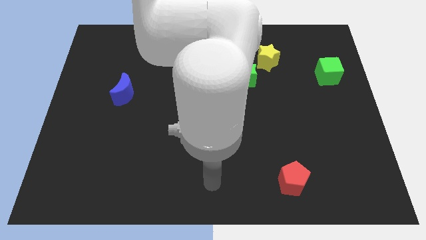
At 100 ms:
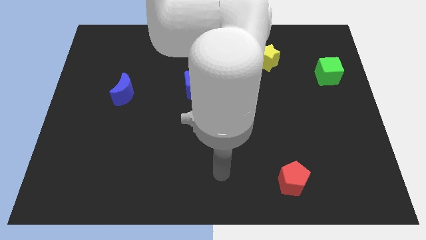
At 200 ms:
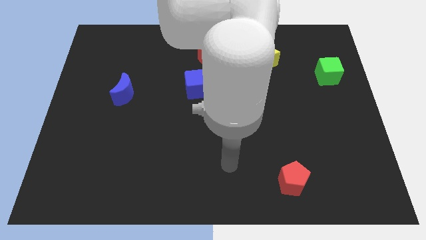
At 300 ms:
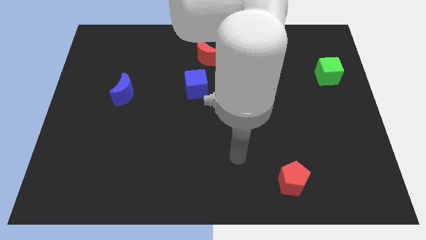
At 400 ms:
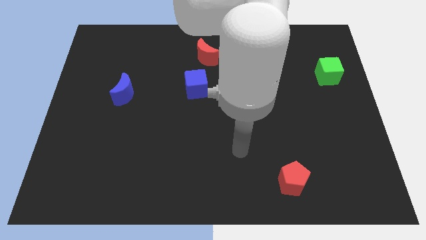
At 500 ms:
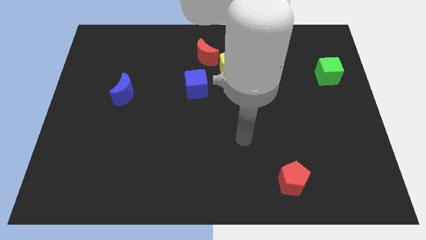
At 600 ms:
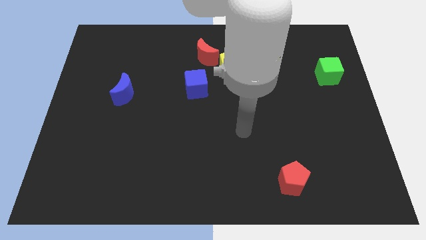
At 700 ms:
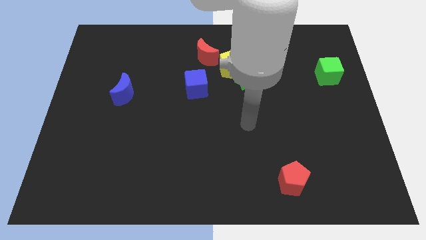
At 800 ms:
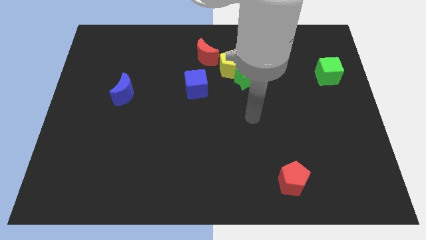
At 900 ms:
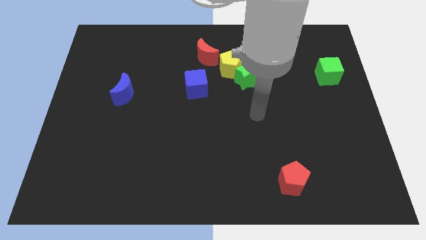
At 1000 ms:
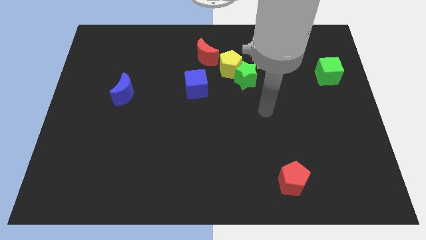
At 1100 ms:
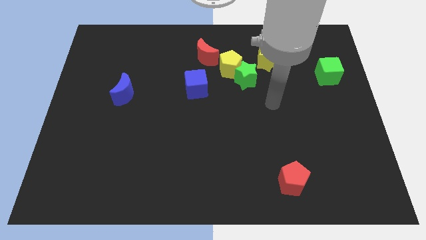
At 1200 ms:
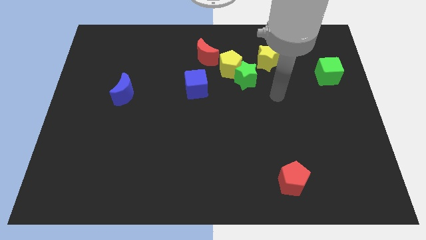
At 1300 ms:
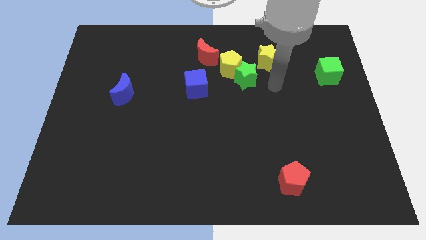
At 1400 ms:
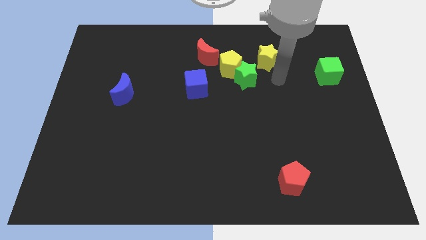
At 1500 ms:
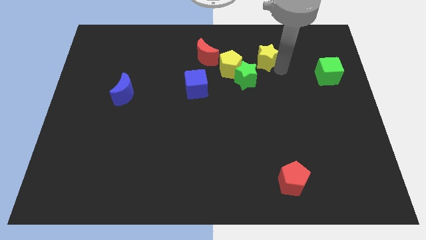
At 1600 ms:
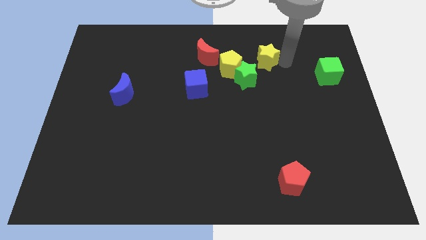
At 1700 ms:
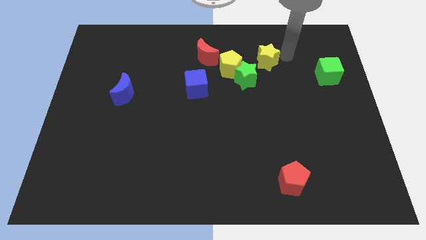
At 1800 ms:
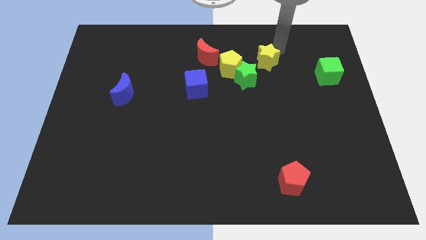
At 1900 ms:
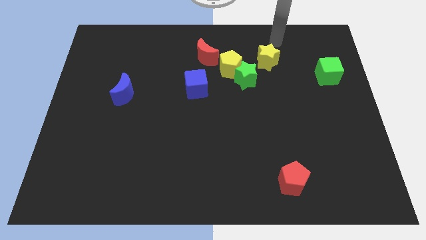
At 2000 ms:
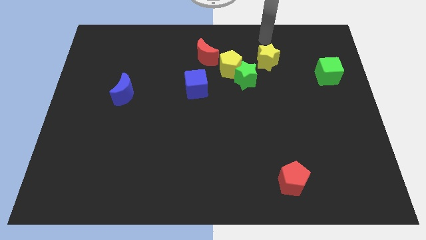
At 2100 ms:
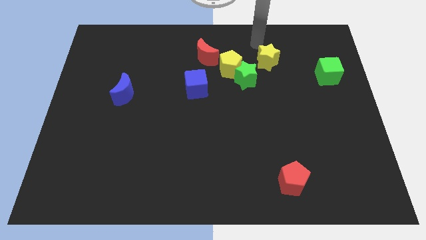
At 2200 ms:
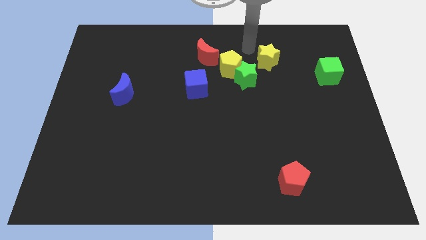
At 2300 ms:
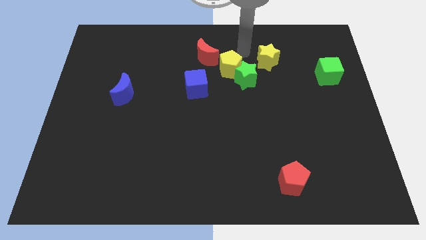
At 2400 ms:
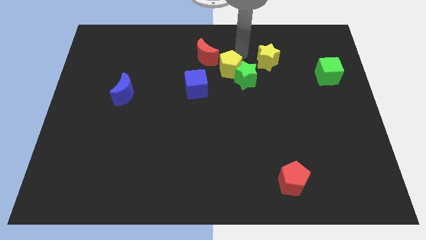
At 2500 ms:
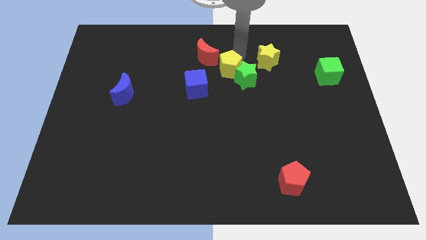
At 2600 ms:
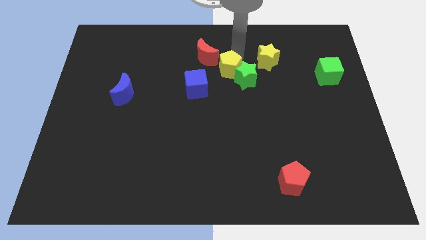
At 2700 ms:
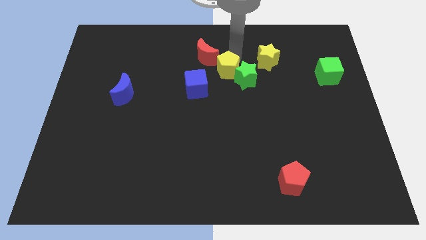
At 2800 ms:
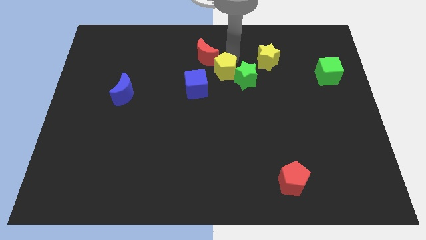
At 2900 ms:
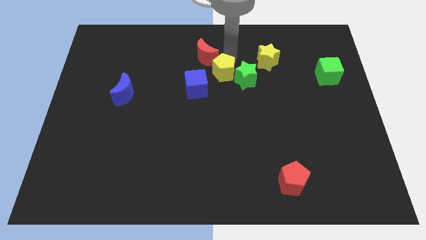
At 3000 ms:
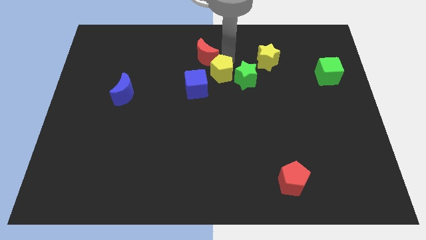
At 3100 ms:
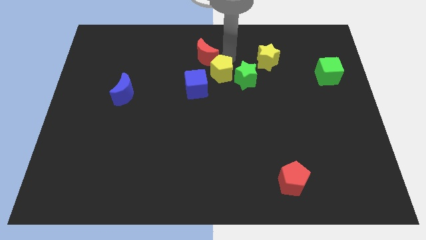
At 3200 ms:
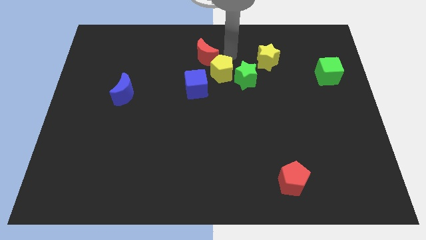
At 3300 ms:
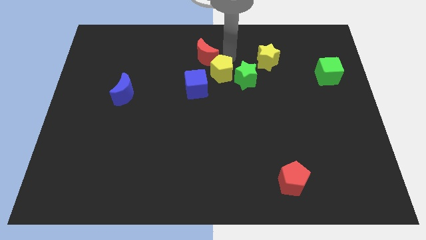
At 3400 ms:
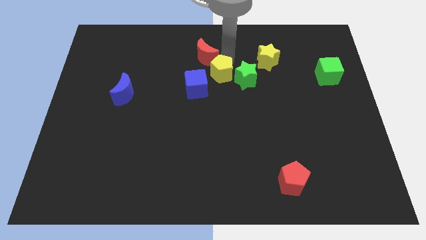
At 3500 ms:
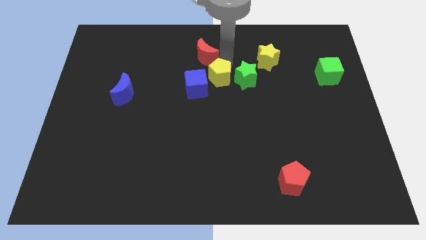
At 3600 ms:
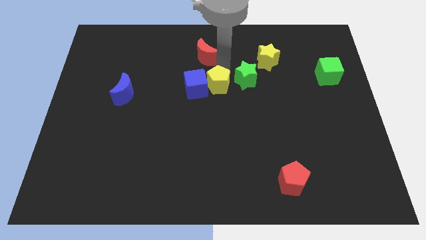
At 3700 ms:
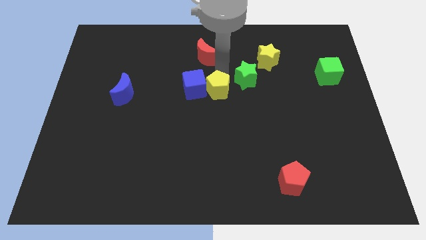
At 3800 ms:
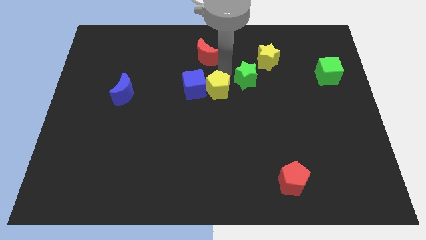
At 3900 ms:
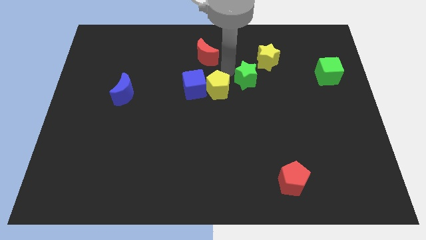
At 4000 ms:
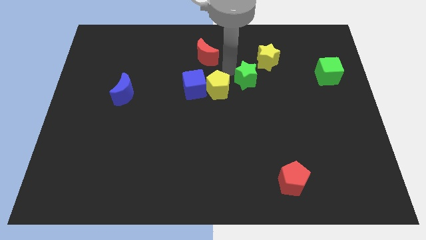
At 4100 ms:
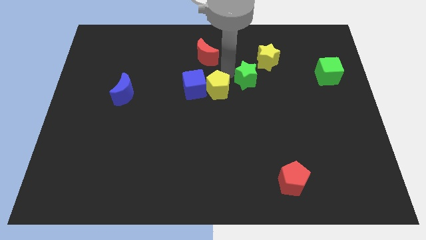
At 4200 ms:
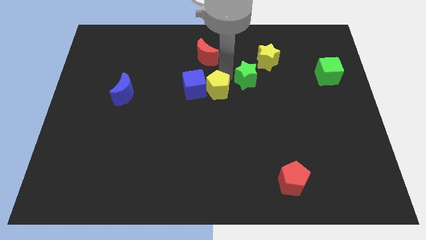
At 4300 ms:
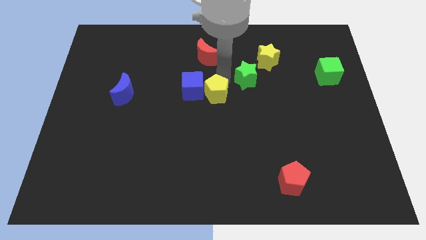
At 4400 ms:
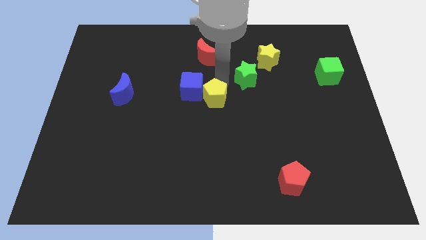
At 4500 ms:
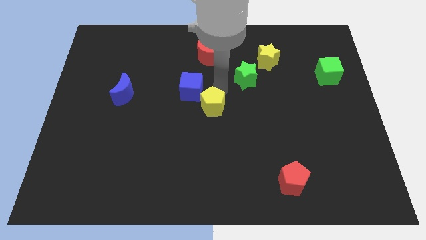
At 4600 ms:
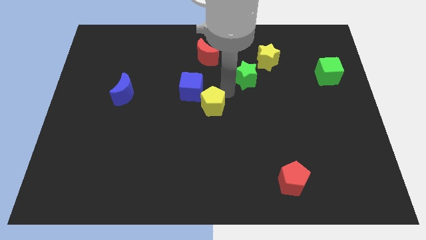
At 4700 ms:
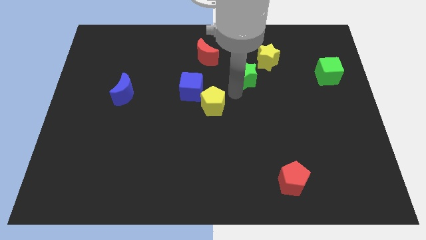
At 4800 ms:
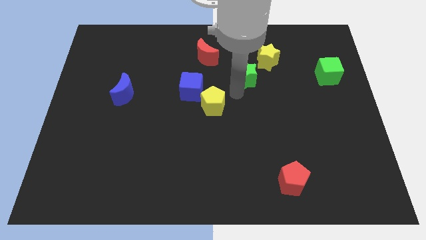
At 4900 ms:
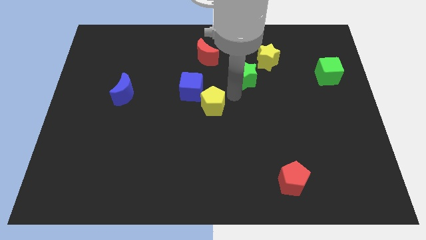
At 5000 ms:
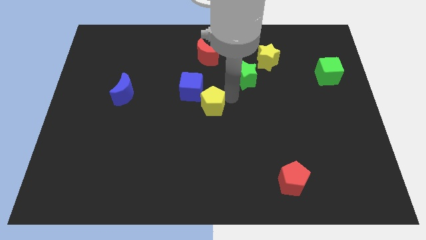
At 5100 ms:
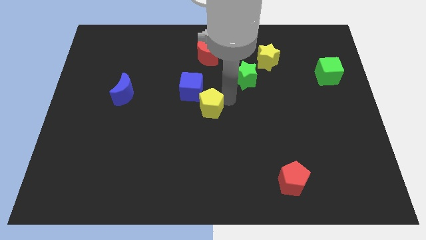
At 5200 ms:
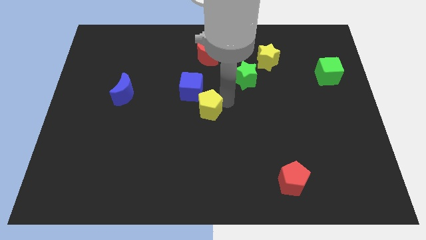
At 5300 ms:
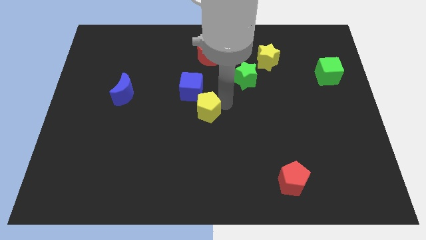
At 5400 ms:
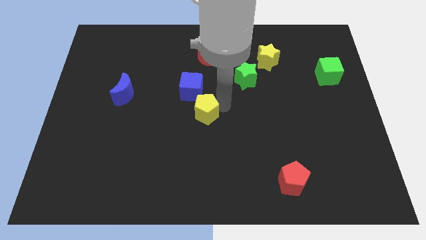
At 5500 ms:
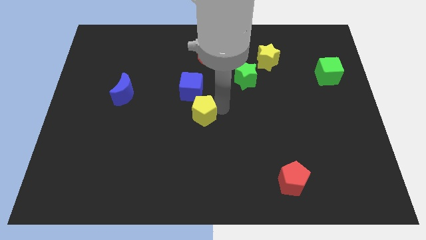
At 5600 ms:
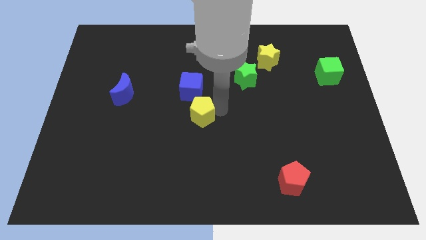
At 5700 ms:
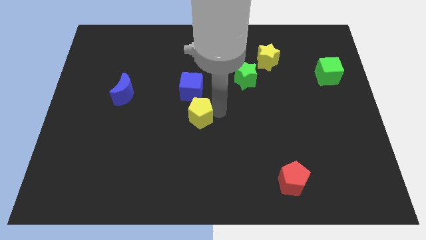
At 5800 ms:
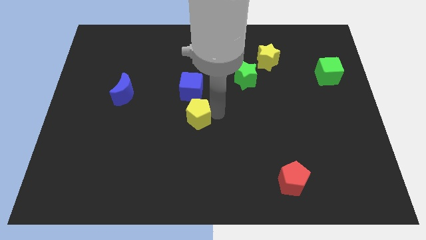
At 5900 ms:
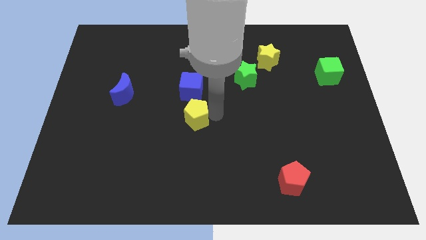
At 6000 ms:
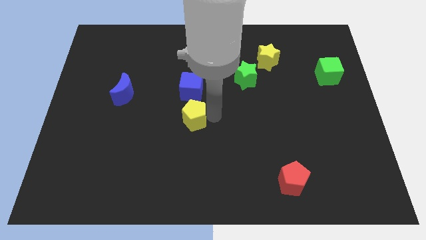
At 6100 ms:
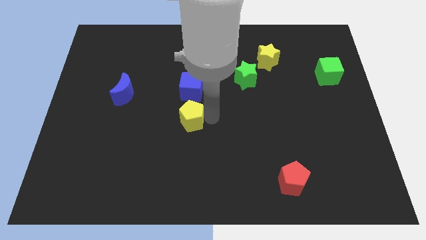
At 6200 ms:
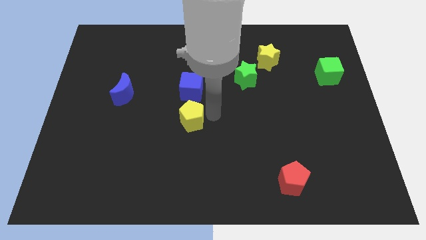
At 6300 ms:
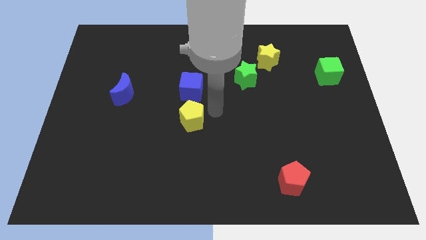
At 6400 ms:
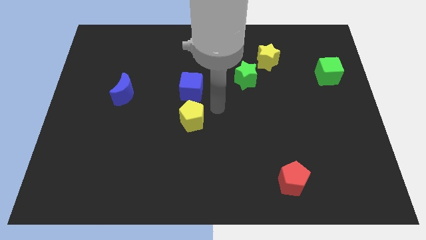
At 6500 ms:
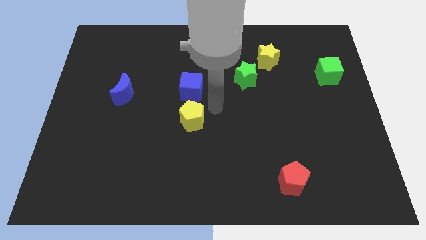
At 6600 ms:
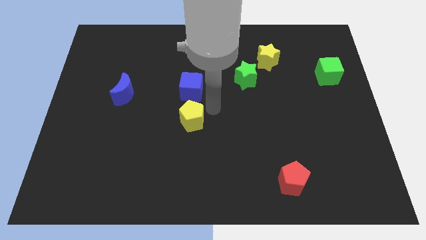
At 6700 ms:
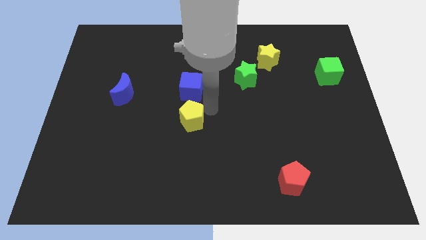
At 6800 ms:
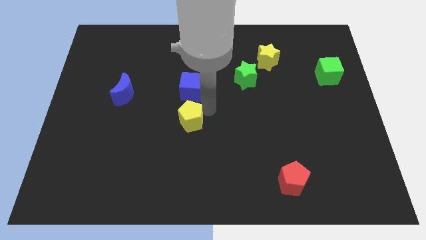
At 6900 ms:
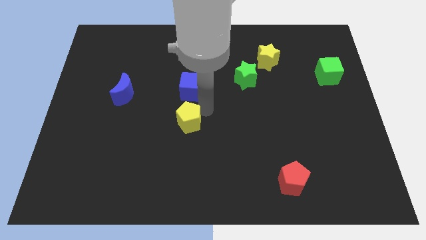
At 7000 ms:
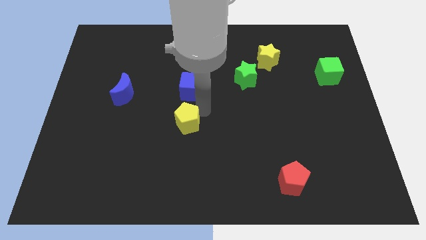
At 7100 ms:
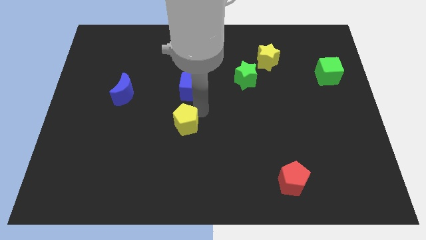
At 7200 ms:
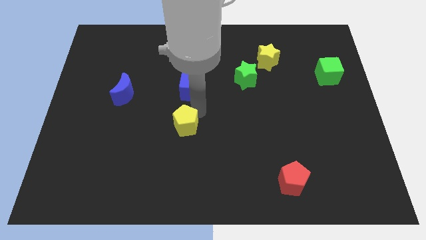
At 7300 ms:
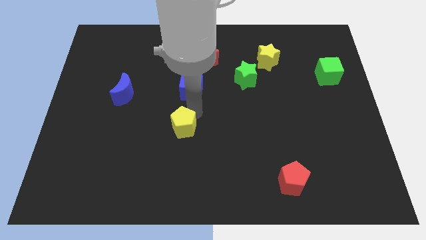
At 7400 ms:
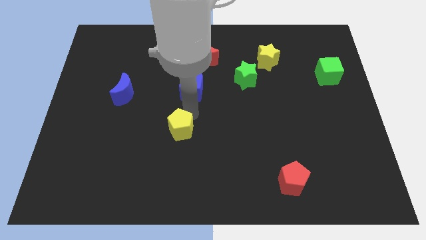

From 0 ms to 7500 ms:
slide the yellow pentagon downwards and to the left

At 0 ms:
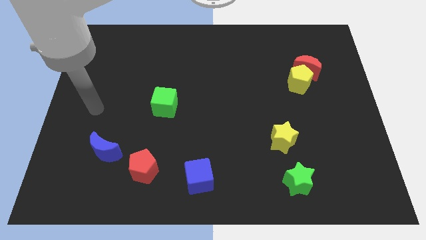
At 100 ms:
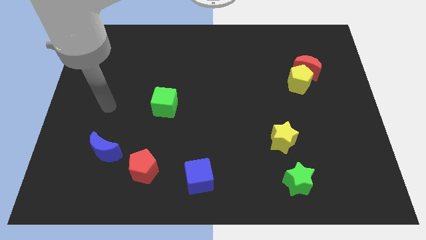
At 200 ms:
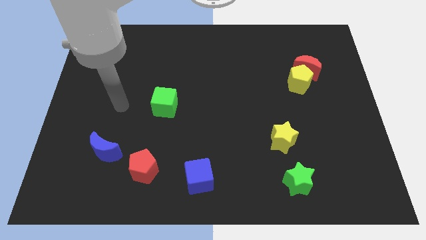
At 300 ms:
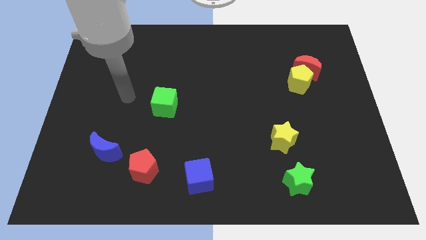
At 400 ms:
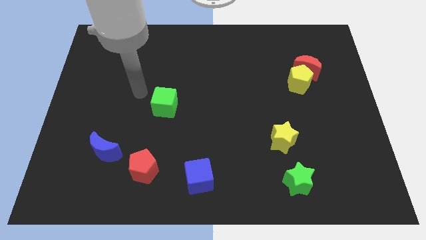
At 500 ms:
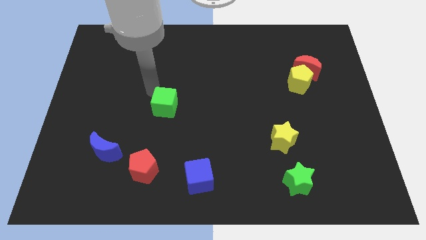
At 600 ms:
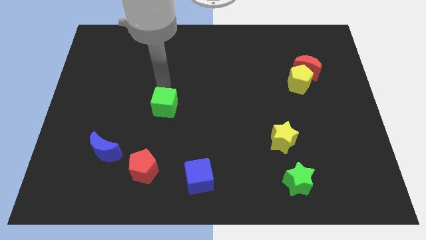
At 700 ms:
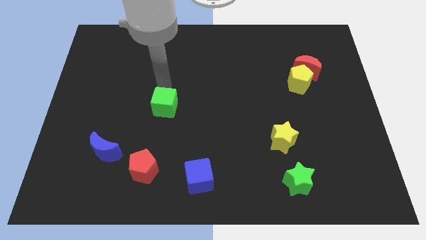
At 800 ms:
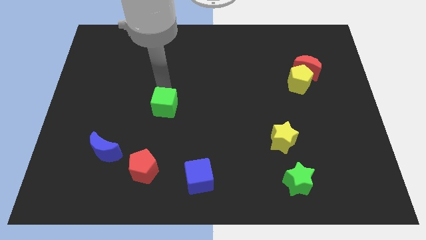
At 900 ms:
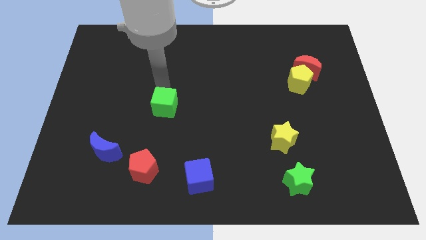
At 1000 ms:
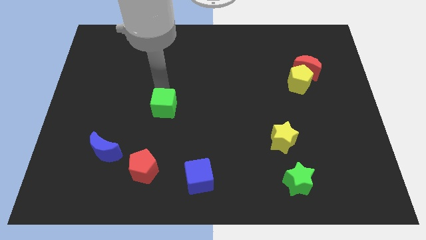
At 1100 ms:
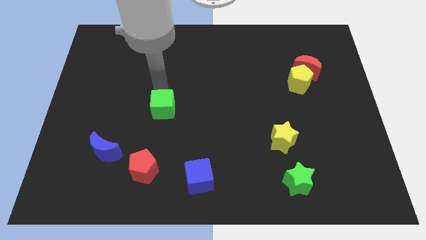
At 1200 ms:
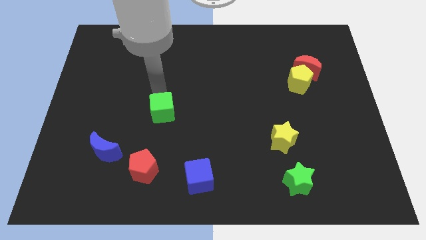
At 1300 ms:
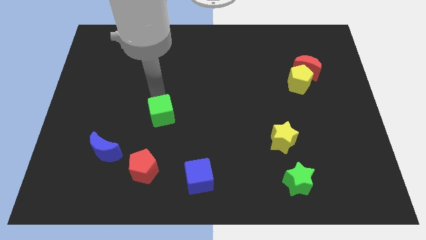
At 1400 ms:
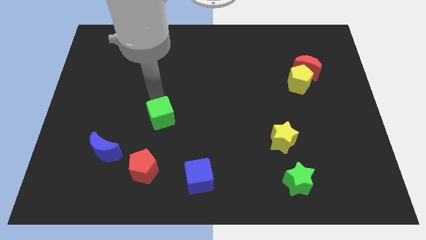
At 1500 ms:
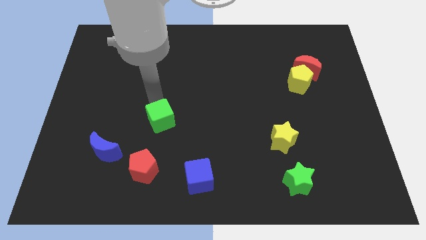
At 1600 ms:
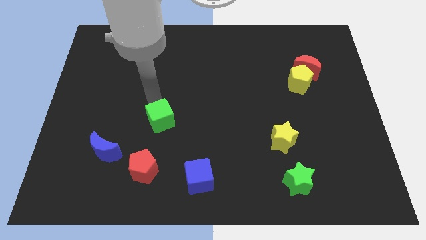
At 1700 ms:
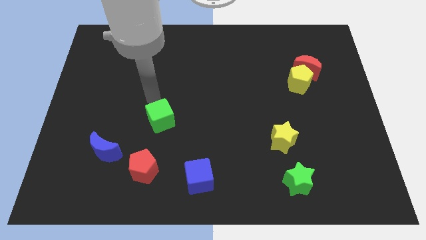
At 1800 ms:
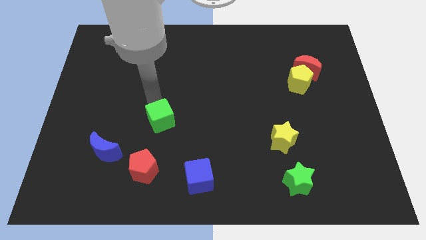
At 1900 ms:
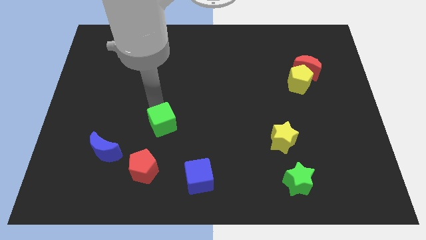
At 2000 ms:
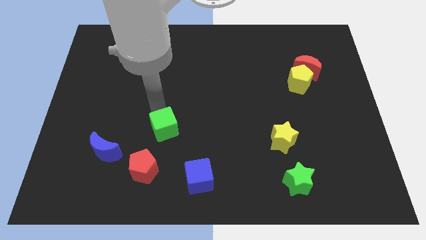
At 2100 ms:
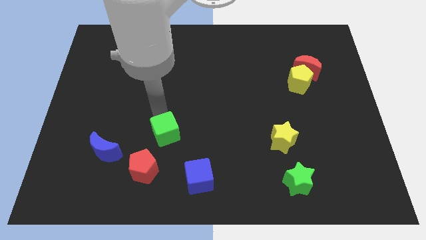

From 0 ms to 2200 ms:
slightly slide the green cube down
